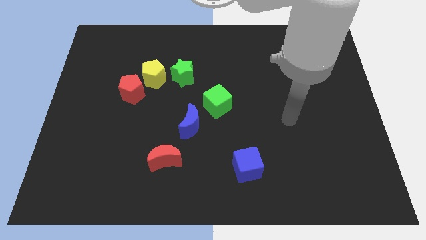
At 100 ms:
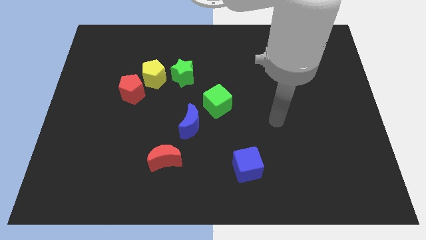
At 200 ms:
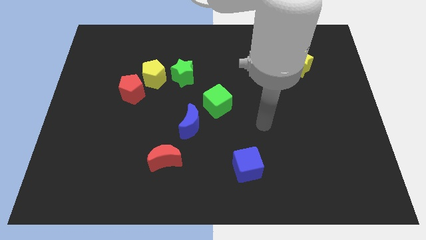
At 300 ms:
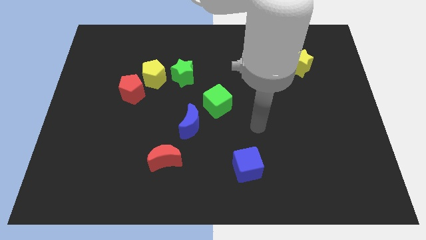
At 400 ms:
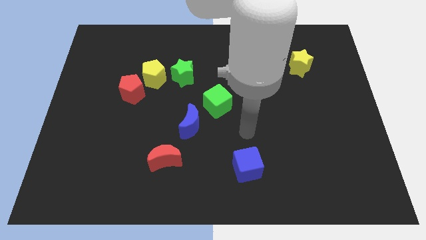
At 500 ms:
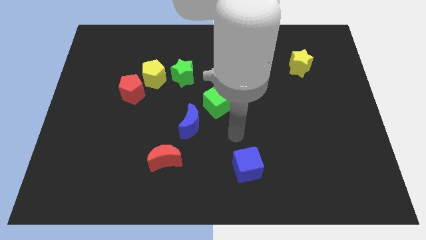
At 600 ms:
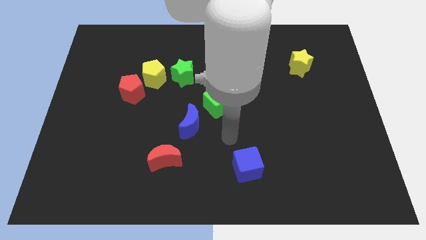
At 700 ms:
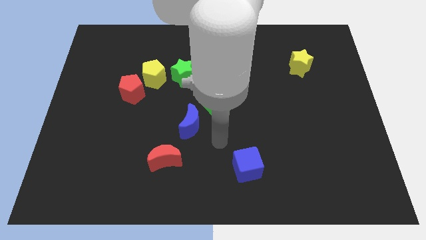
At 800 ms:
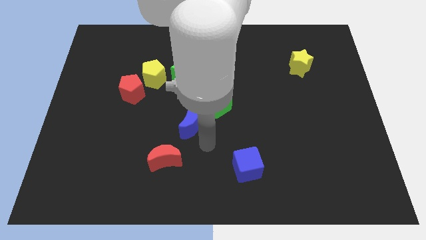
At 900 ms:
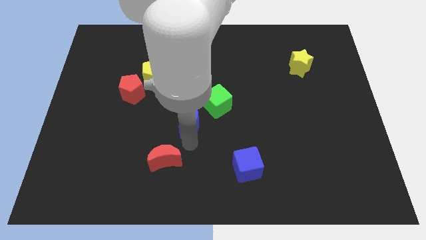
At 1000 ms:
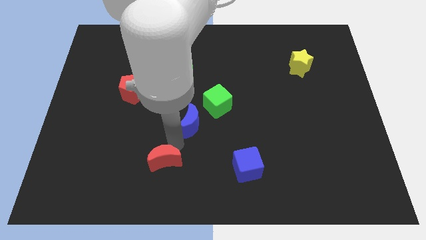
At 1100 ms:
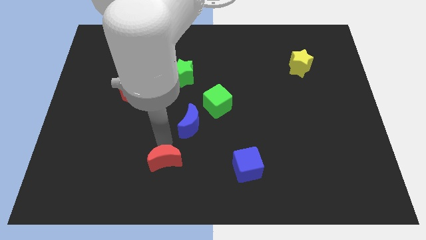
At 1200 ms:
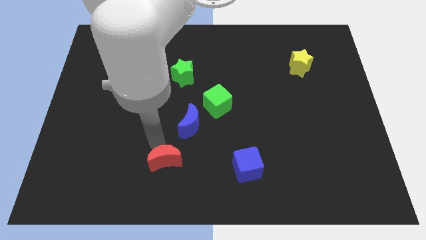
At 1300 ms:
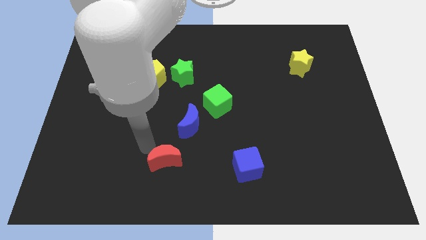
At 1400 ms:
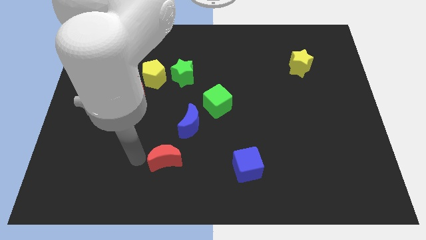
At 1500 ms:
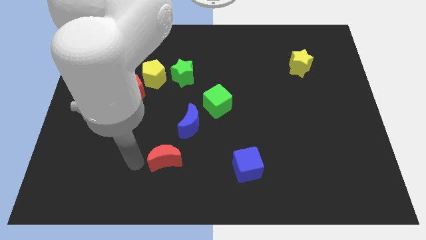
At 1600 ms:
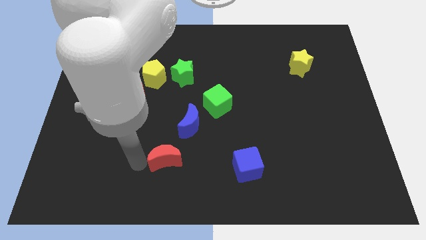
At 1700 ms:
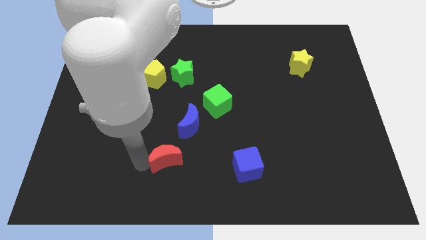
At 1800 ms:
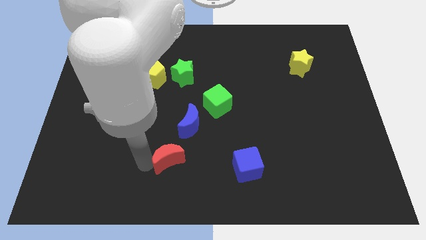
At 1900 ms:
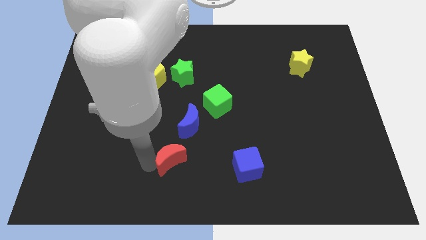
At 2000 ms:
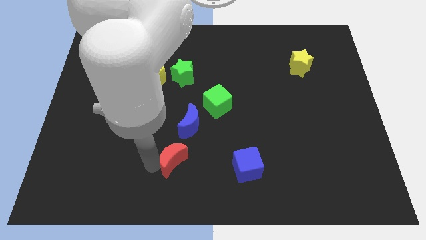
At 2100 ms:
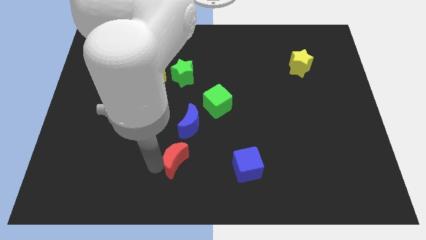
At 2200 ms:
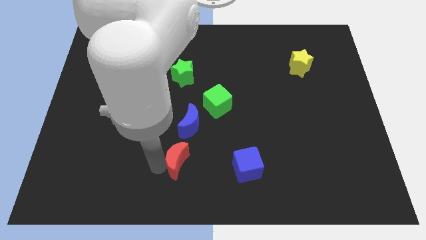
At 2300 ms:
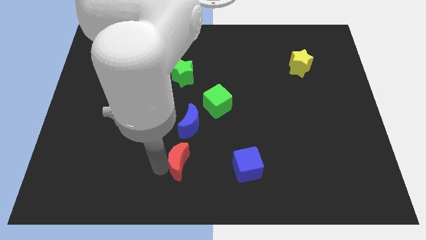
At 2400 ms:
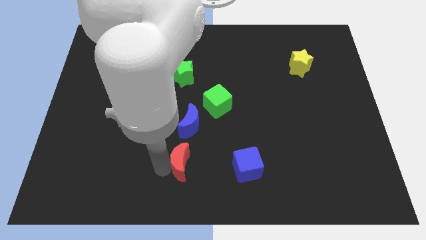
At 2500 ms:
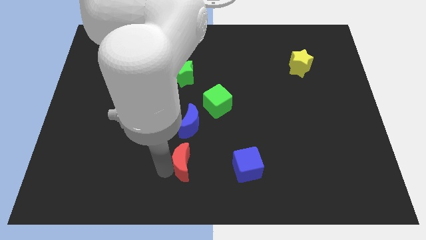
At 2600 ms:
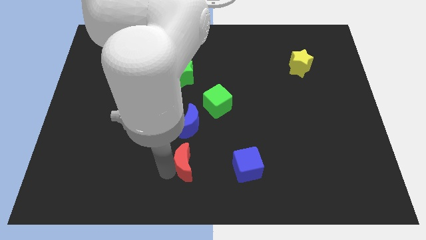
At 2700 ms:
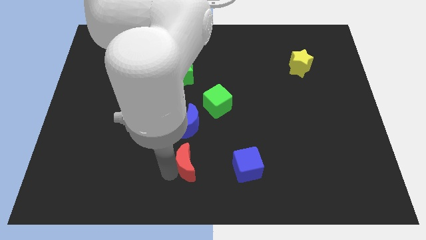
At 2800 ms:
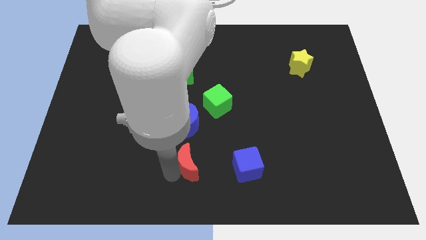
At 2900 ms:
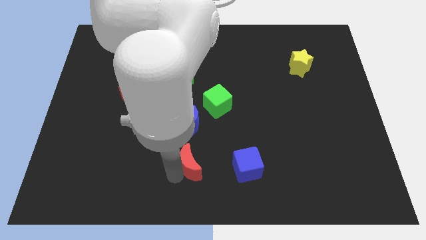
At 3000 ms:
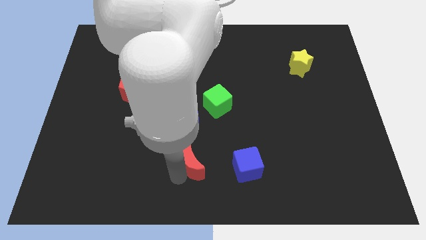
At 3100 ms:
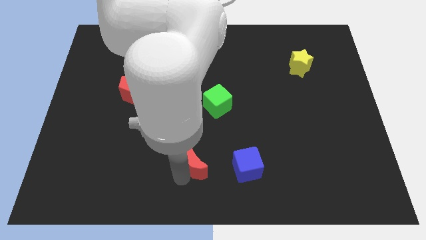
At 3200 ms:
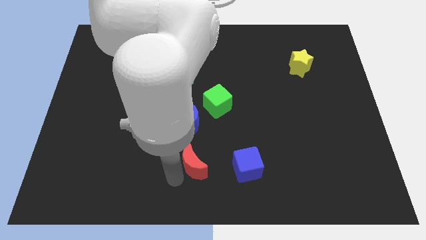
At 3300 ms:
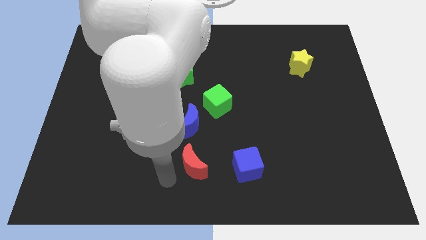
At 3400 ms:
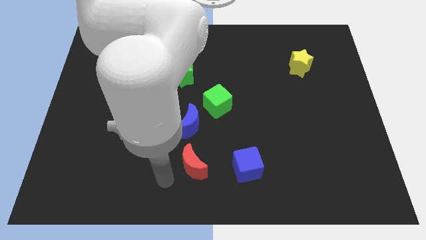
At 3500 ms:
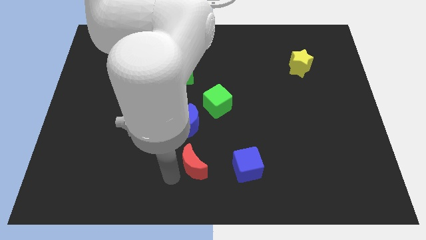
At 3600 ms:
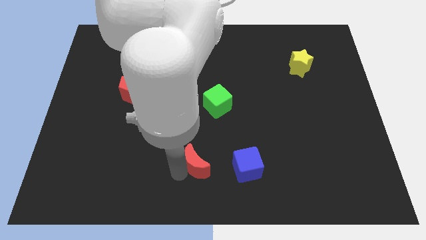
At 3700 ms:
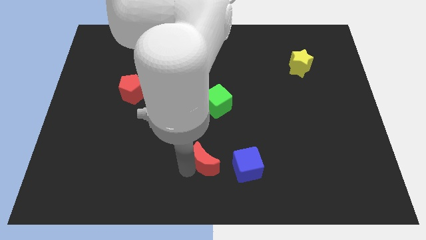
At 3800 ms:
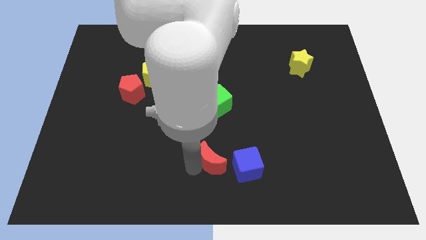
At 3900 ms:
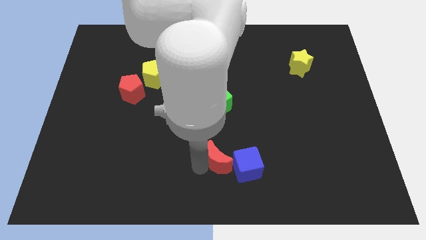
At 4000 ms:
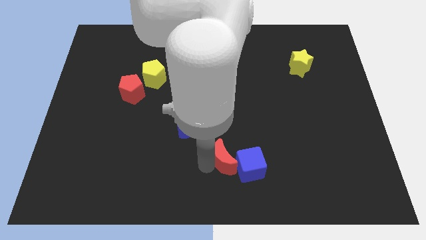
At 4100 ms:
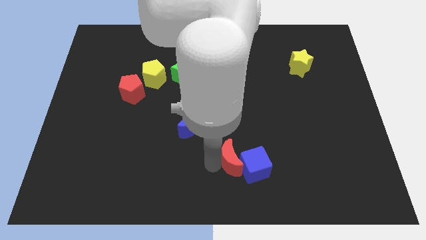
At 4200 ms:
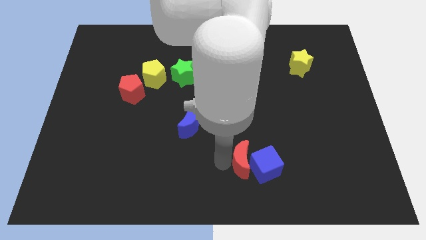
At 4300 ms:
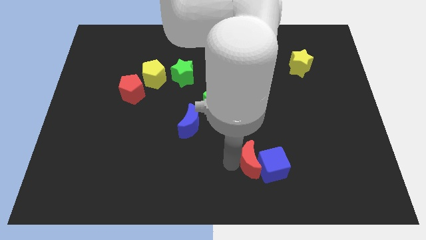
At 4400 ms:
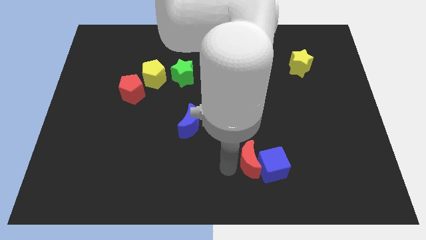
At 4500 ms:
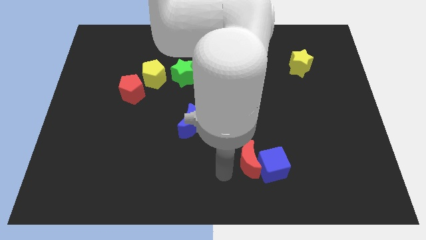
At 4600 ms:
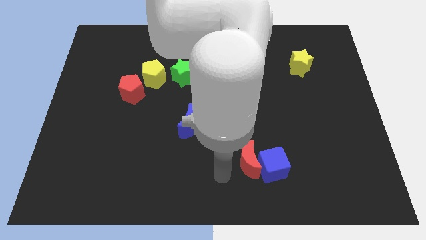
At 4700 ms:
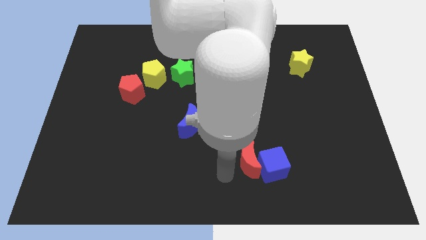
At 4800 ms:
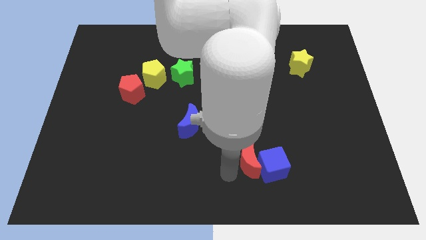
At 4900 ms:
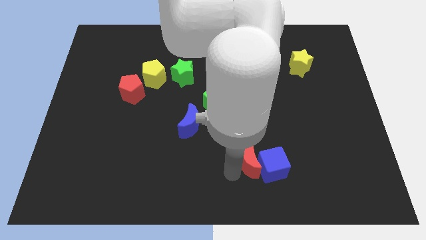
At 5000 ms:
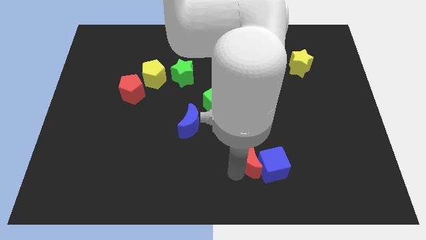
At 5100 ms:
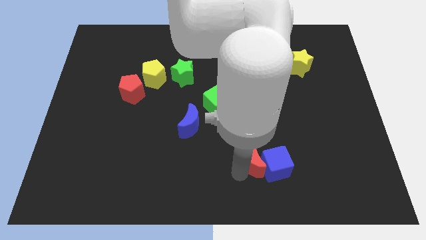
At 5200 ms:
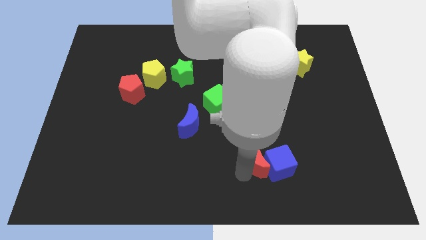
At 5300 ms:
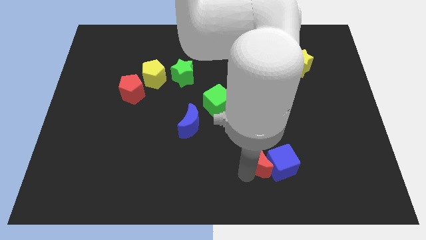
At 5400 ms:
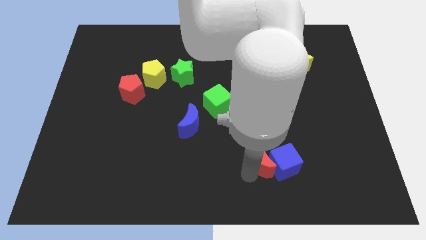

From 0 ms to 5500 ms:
slide the red moon right

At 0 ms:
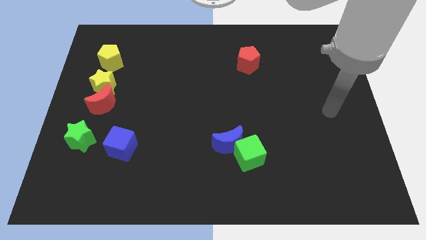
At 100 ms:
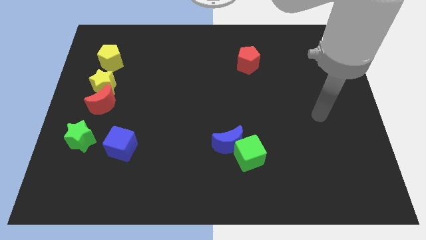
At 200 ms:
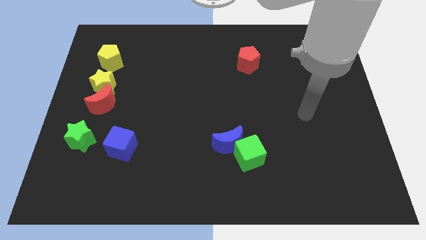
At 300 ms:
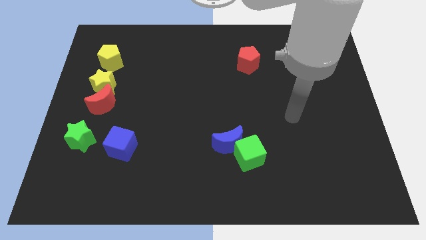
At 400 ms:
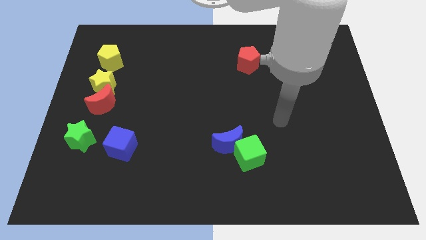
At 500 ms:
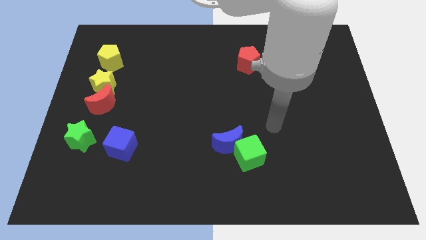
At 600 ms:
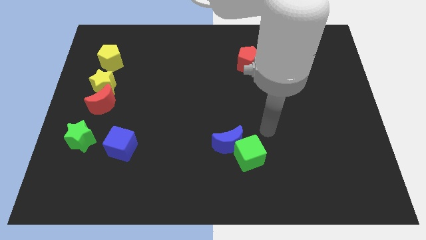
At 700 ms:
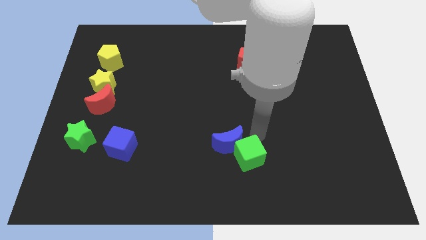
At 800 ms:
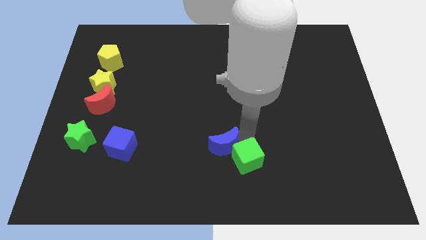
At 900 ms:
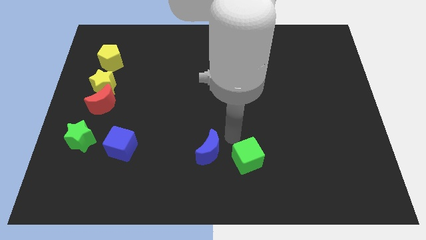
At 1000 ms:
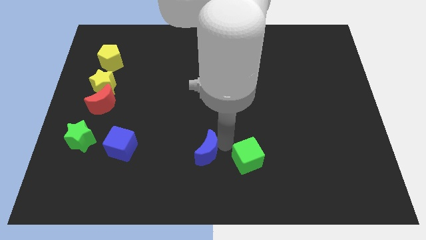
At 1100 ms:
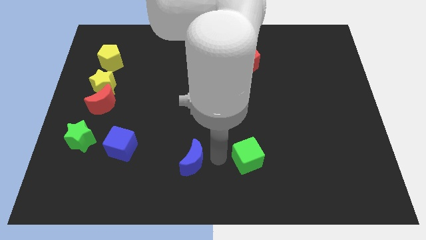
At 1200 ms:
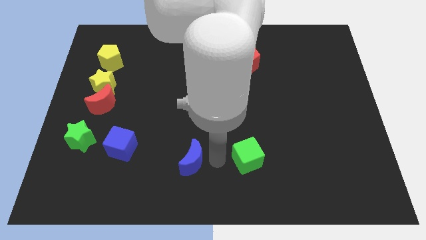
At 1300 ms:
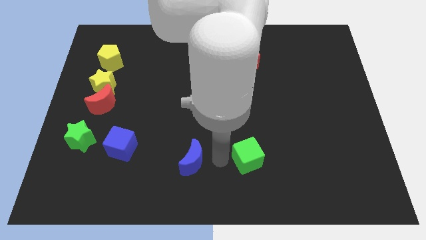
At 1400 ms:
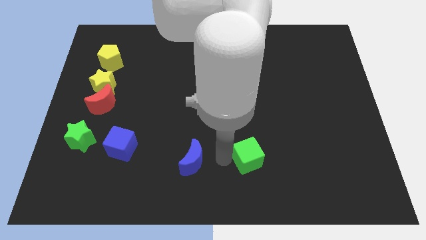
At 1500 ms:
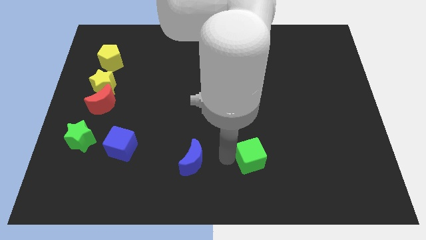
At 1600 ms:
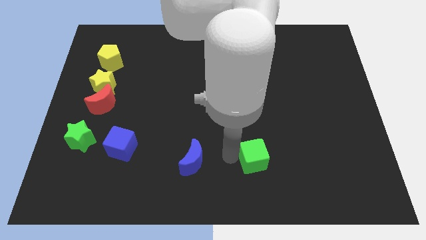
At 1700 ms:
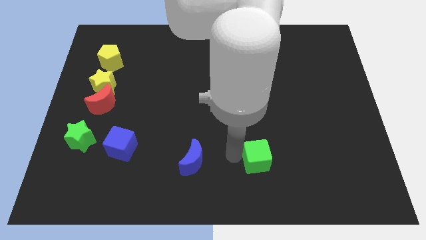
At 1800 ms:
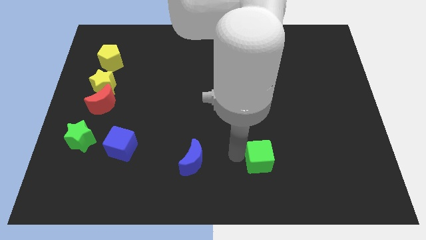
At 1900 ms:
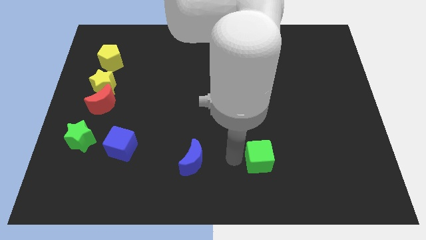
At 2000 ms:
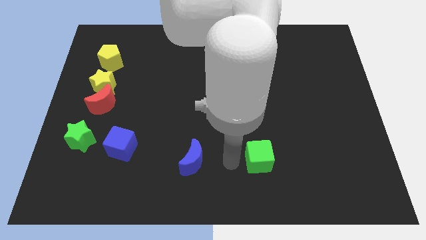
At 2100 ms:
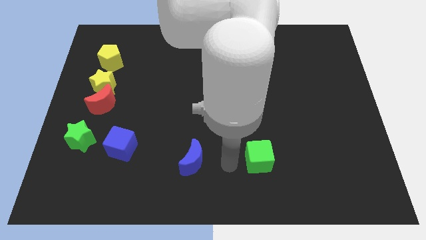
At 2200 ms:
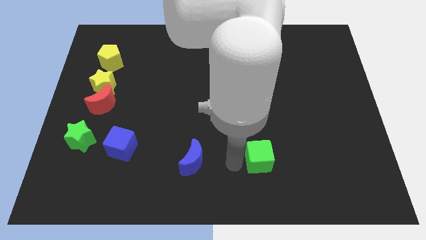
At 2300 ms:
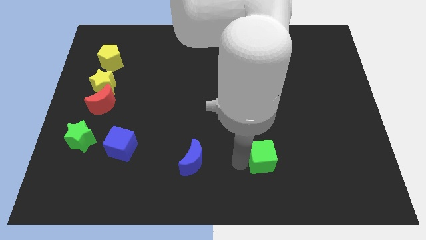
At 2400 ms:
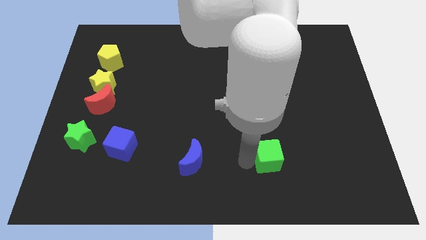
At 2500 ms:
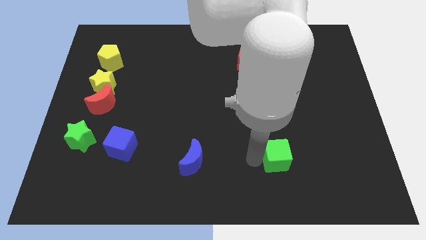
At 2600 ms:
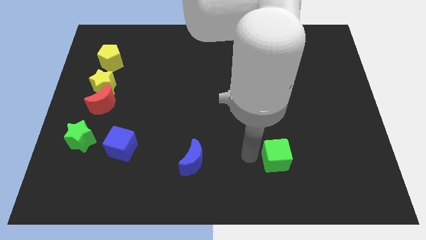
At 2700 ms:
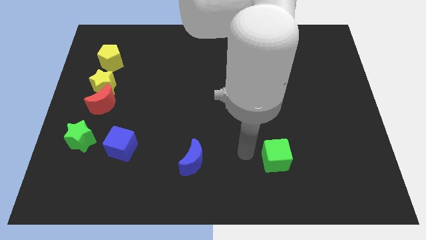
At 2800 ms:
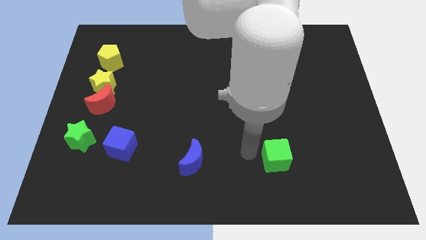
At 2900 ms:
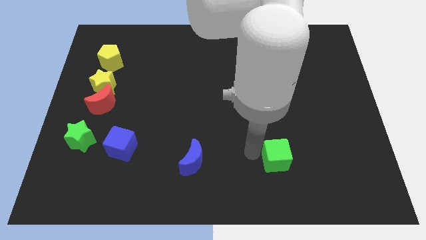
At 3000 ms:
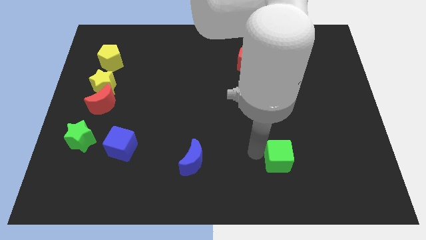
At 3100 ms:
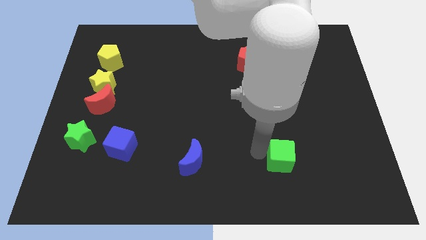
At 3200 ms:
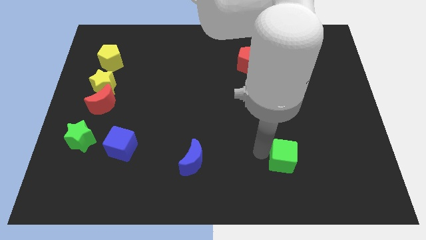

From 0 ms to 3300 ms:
slide the green cube to the right a little bit
